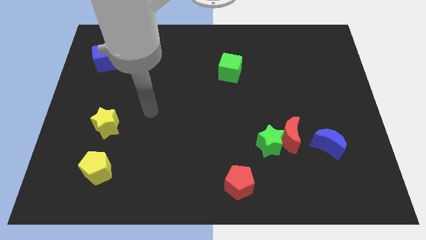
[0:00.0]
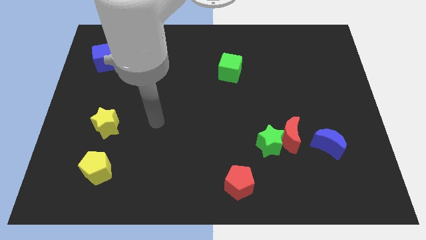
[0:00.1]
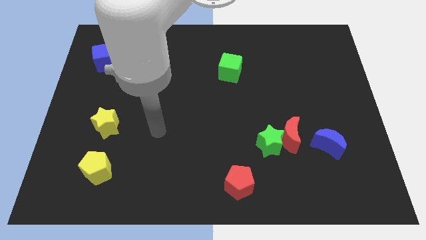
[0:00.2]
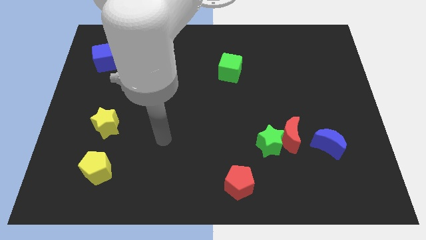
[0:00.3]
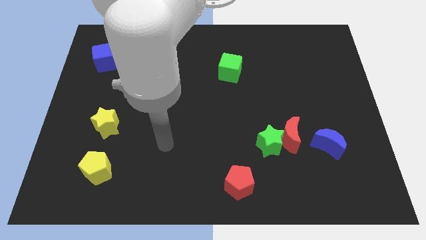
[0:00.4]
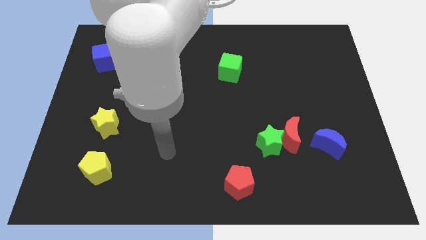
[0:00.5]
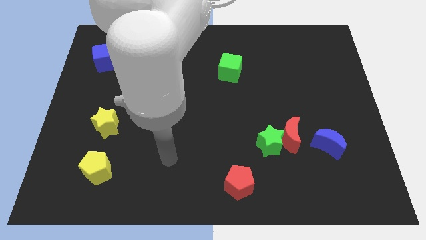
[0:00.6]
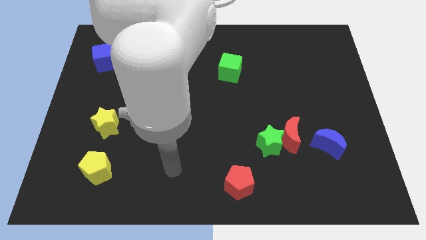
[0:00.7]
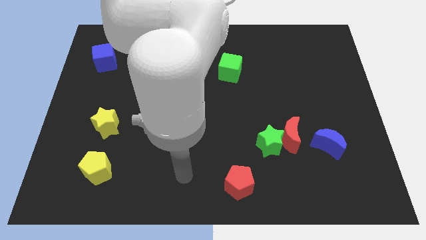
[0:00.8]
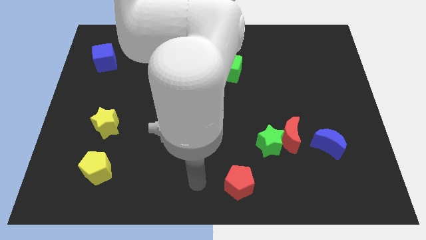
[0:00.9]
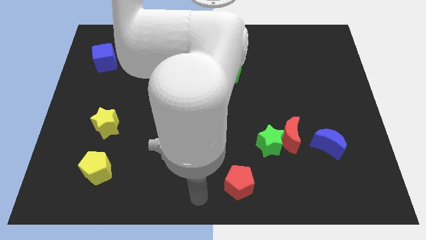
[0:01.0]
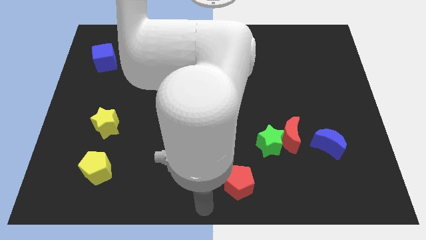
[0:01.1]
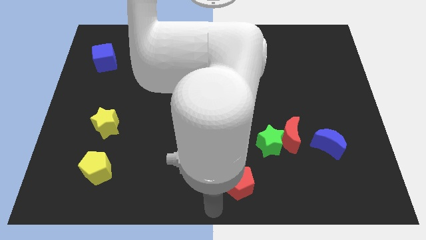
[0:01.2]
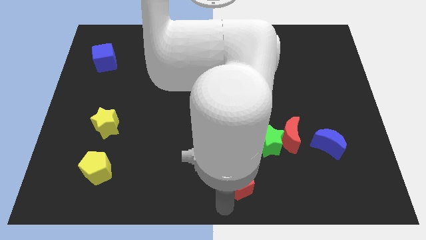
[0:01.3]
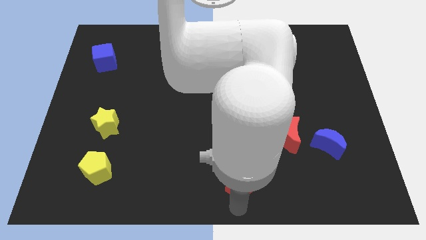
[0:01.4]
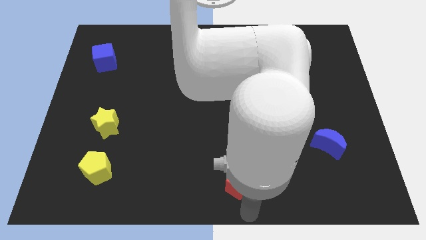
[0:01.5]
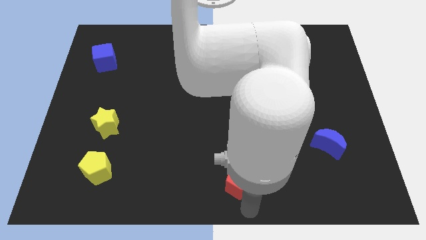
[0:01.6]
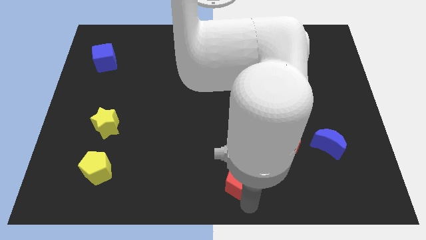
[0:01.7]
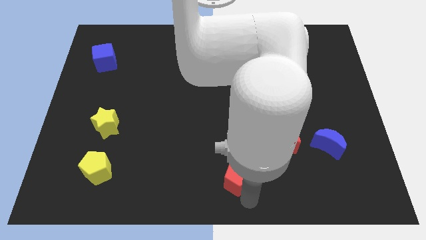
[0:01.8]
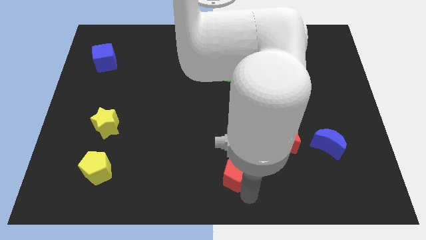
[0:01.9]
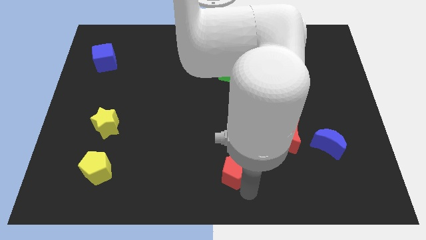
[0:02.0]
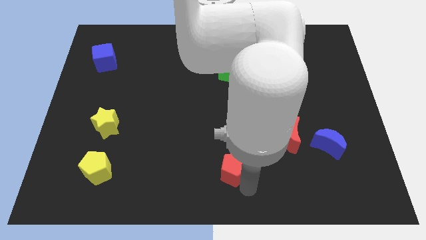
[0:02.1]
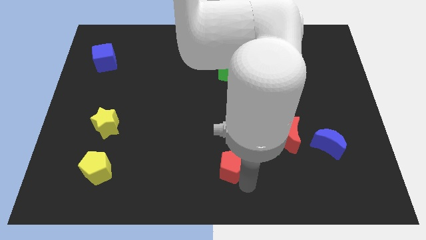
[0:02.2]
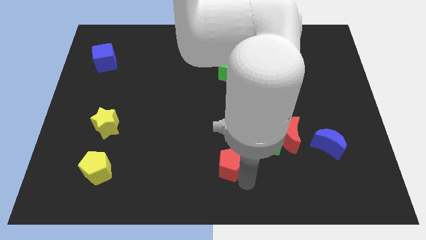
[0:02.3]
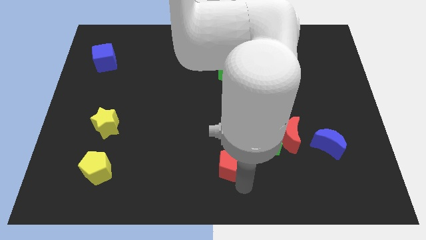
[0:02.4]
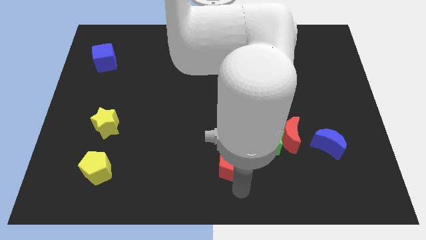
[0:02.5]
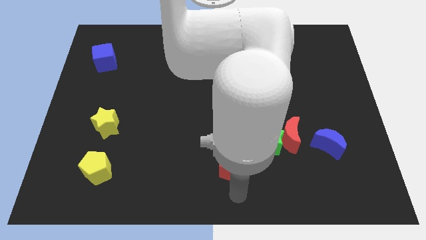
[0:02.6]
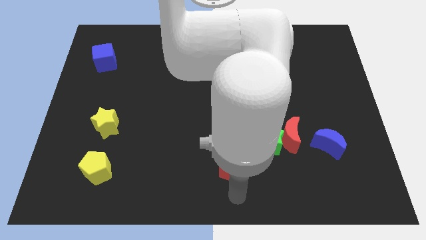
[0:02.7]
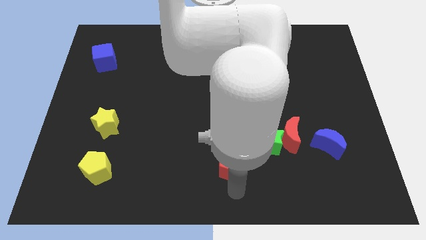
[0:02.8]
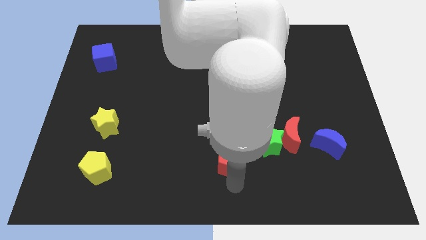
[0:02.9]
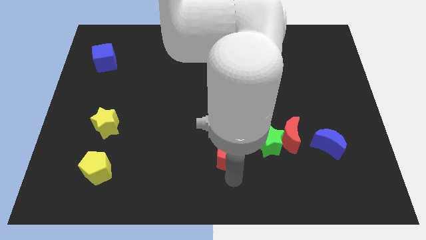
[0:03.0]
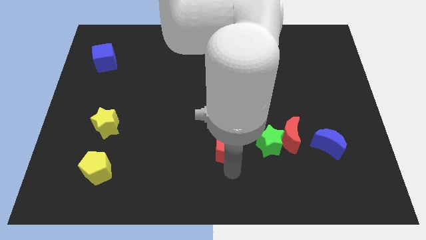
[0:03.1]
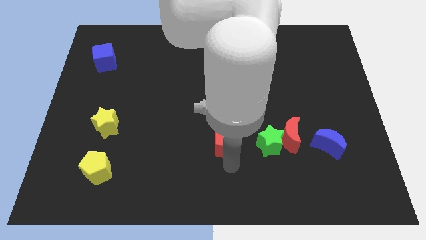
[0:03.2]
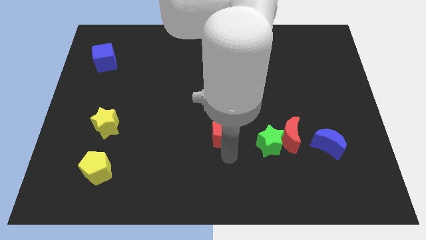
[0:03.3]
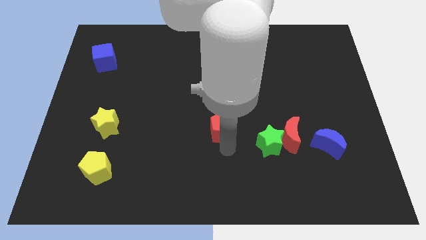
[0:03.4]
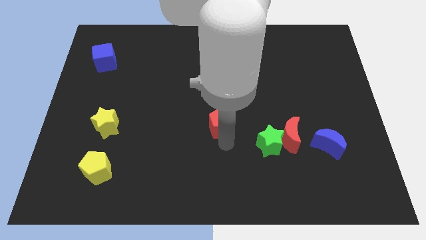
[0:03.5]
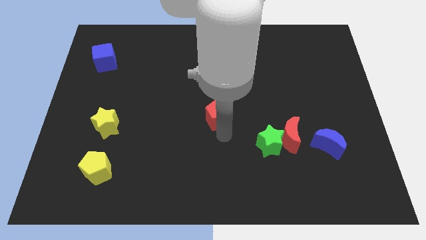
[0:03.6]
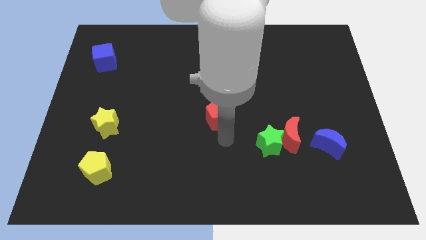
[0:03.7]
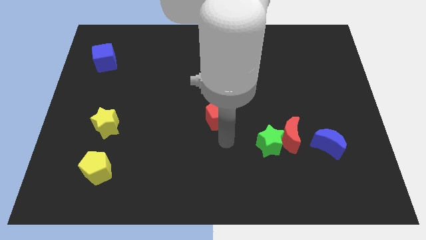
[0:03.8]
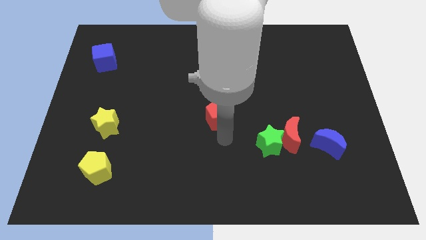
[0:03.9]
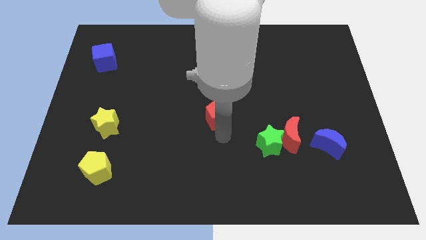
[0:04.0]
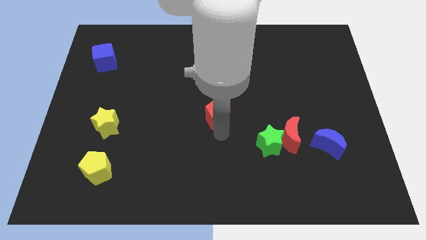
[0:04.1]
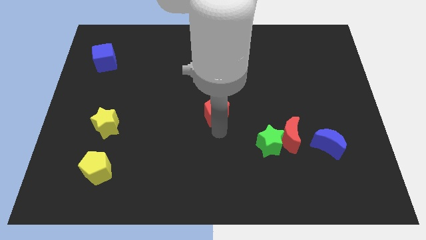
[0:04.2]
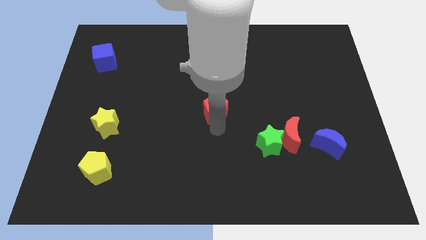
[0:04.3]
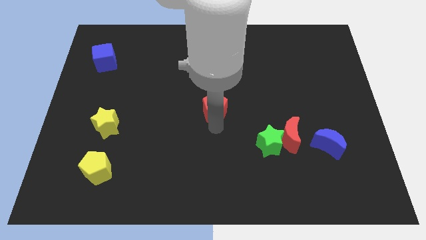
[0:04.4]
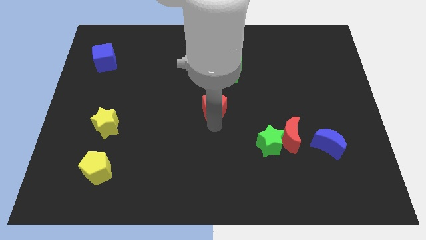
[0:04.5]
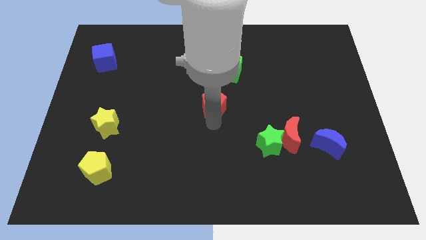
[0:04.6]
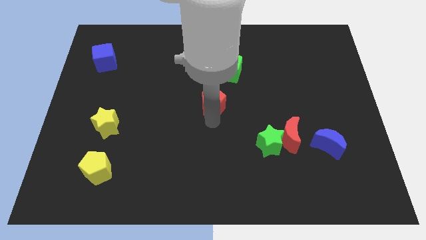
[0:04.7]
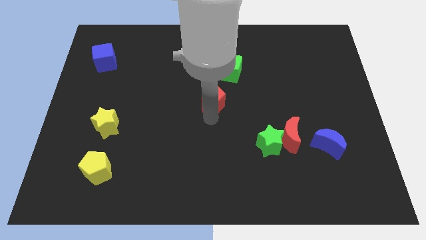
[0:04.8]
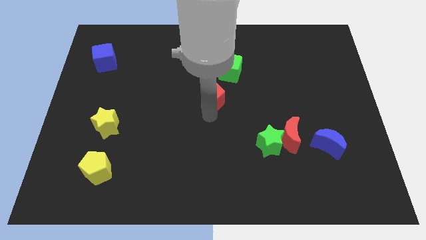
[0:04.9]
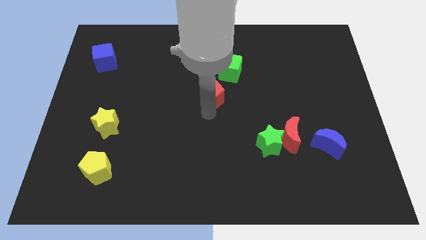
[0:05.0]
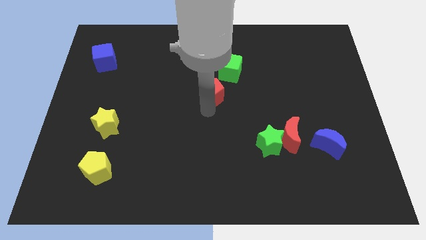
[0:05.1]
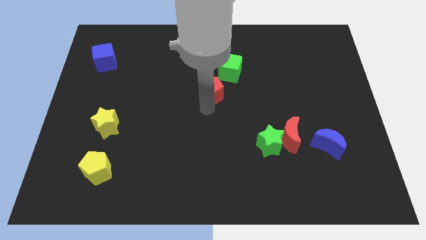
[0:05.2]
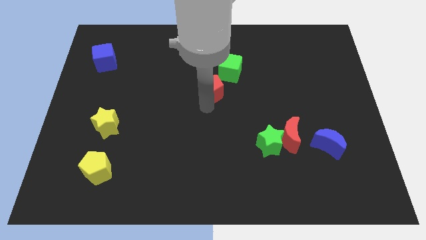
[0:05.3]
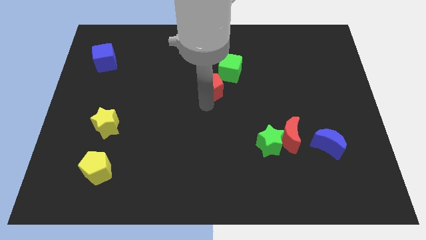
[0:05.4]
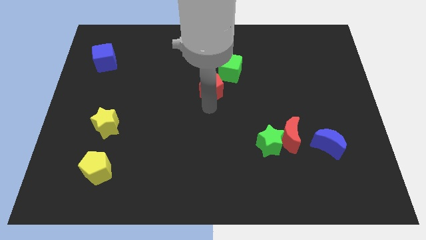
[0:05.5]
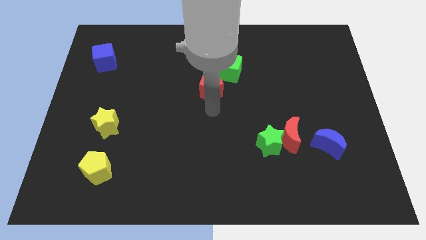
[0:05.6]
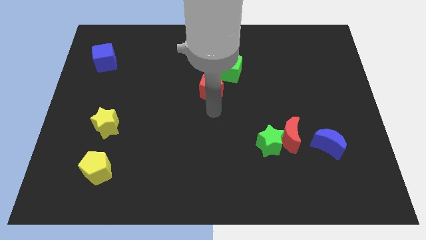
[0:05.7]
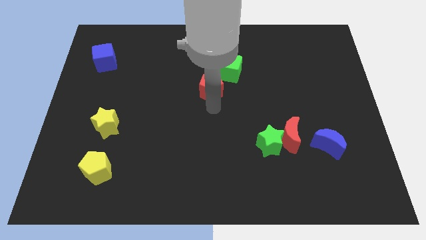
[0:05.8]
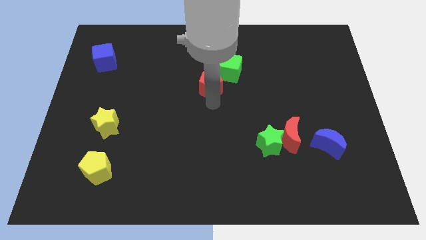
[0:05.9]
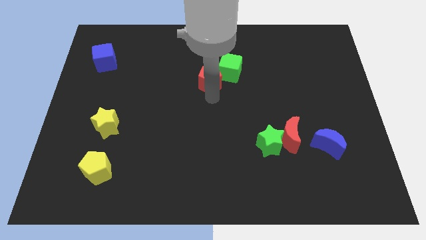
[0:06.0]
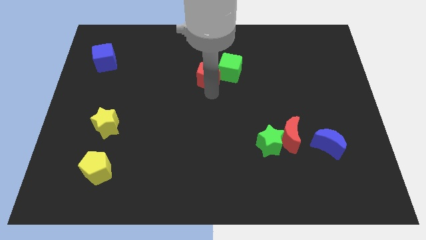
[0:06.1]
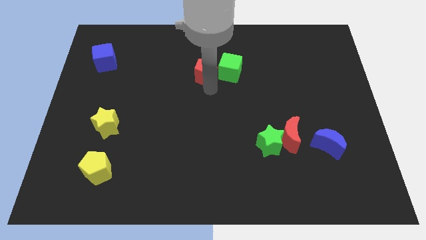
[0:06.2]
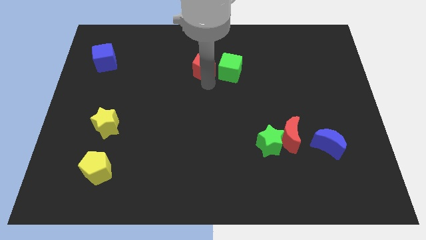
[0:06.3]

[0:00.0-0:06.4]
put the red pentagon to the top left side of the green cube

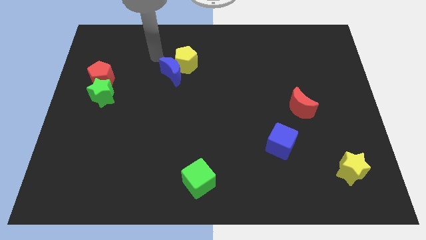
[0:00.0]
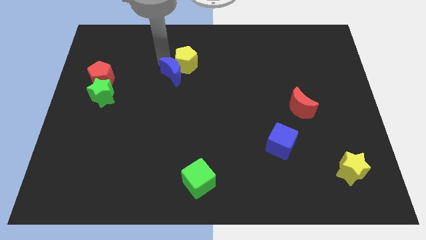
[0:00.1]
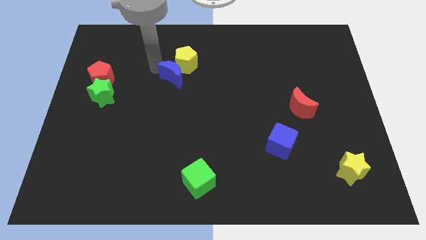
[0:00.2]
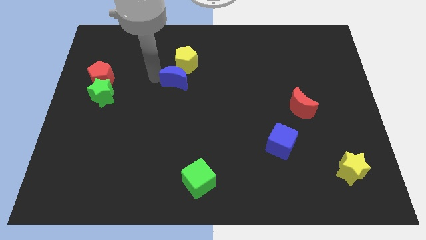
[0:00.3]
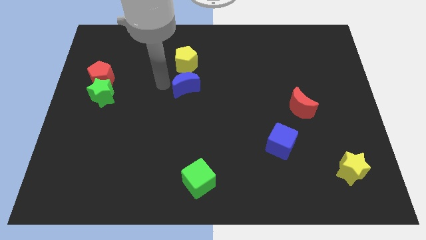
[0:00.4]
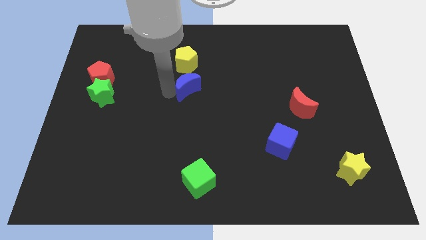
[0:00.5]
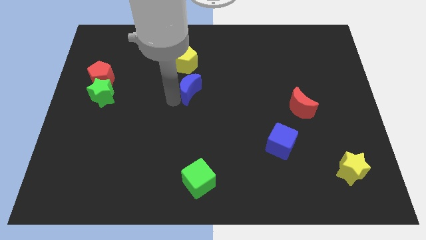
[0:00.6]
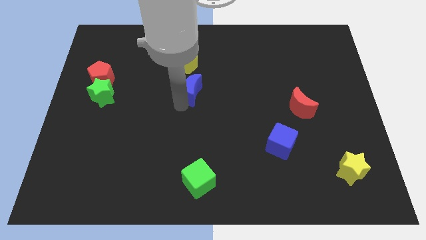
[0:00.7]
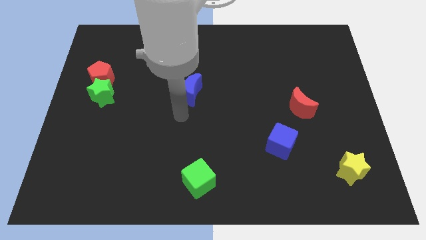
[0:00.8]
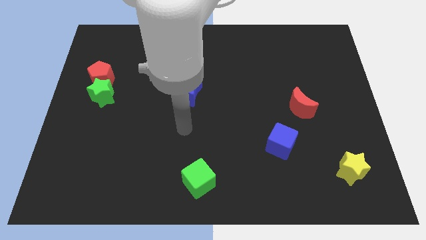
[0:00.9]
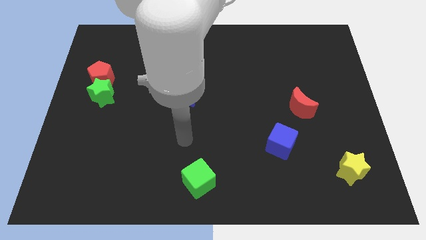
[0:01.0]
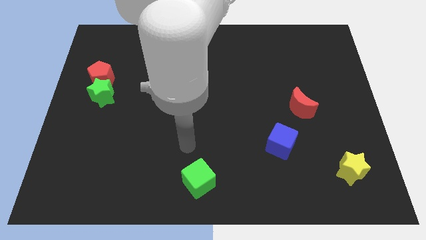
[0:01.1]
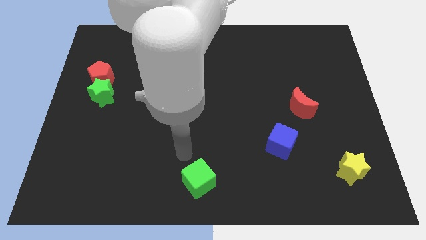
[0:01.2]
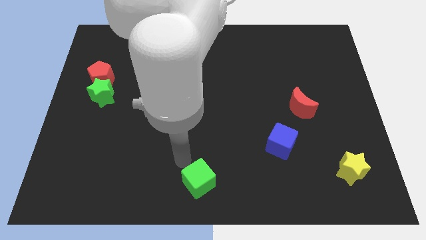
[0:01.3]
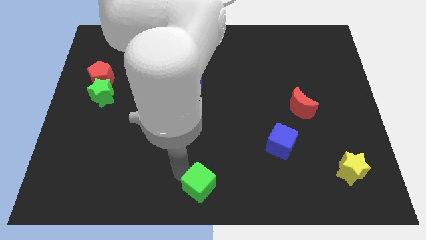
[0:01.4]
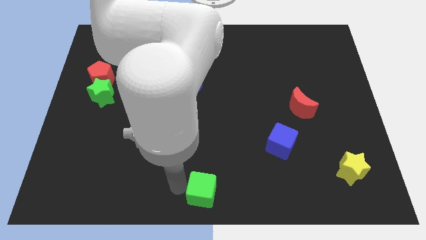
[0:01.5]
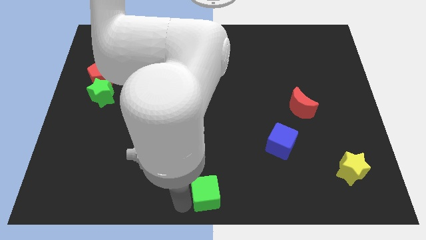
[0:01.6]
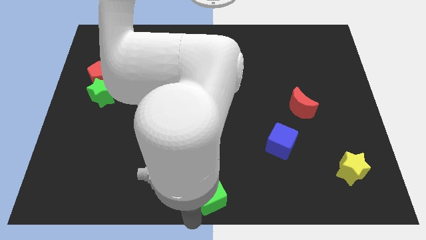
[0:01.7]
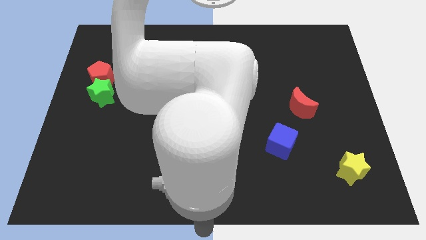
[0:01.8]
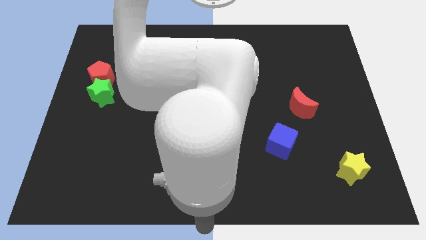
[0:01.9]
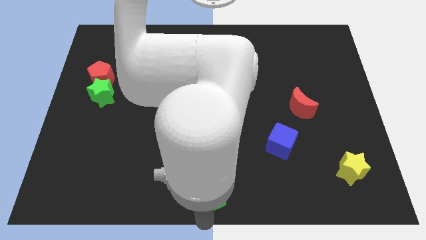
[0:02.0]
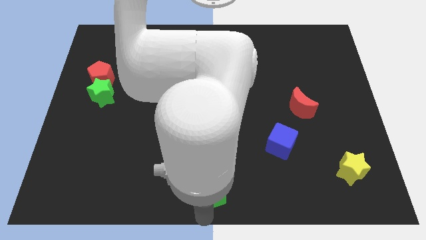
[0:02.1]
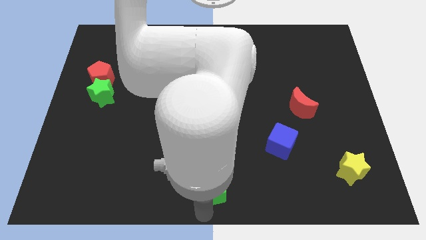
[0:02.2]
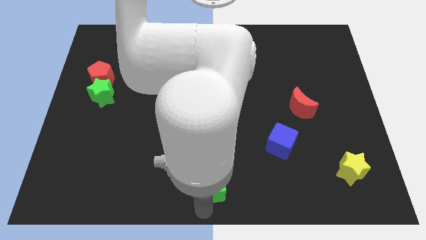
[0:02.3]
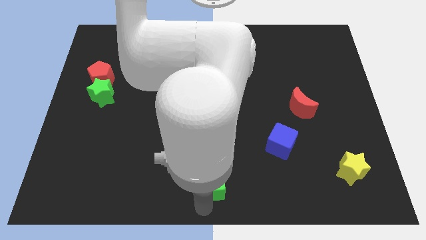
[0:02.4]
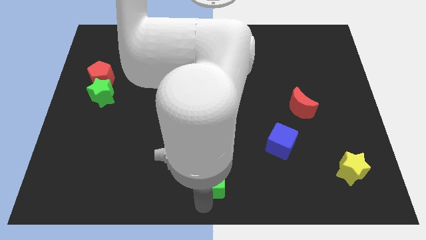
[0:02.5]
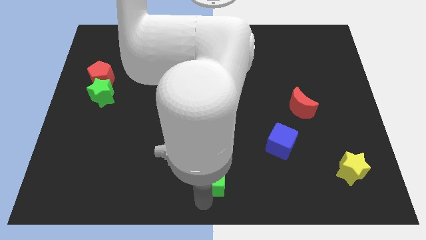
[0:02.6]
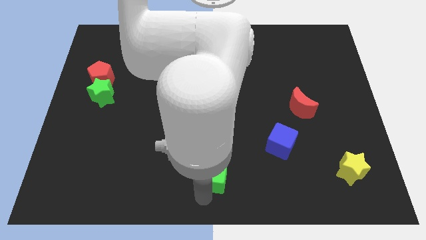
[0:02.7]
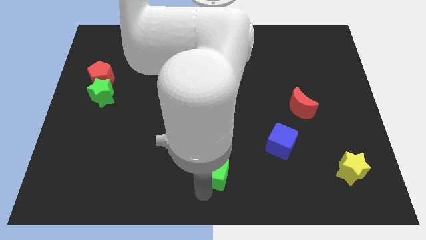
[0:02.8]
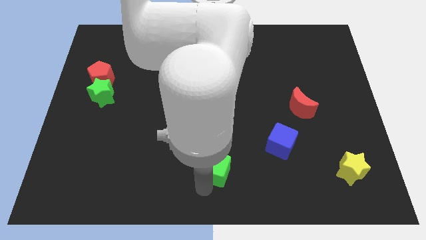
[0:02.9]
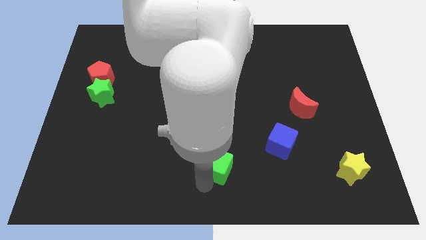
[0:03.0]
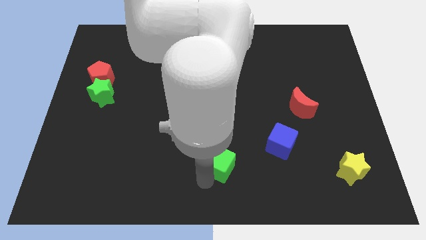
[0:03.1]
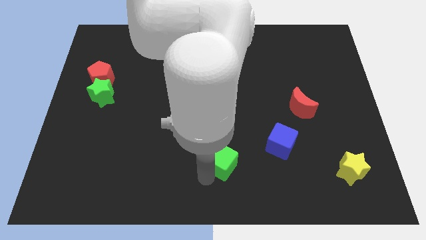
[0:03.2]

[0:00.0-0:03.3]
slide the green cube just left of the blue cube
